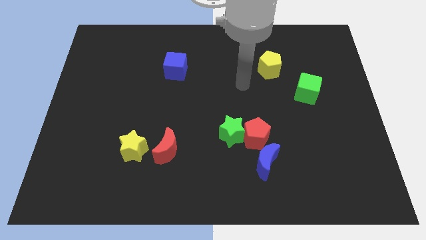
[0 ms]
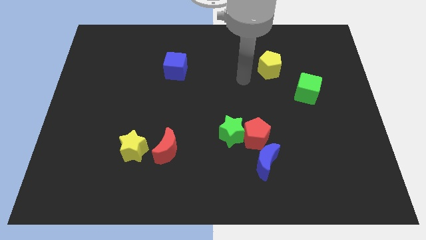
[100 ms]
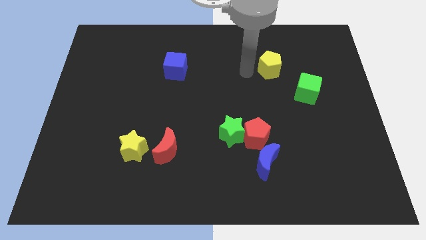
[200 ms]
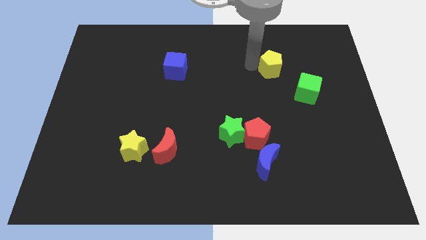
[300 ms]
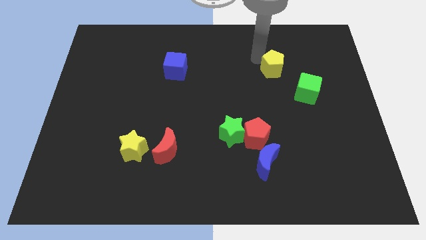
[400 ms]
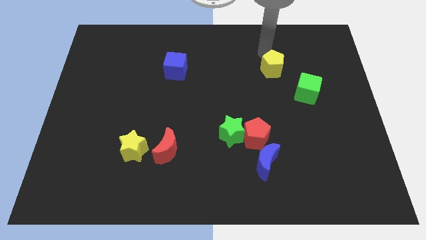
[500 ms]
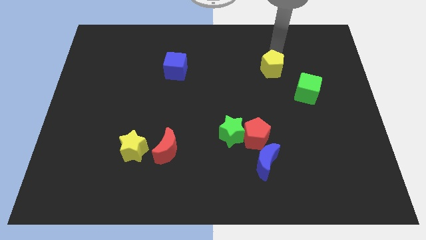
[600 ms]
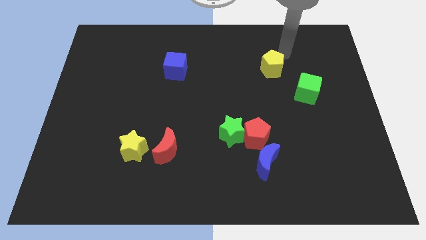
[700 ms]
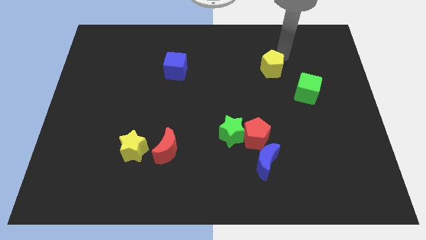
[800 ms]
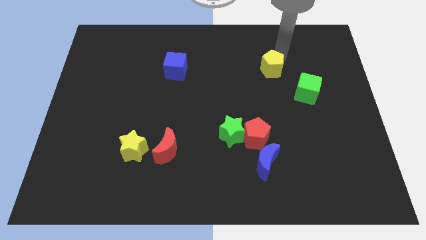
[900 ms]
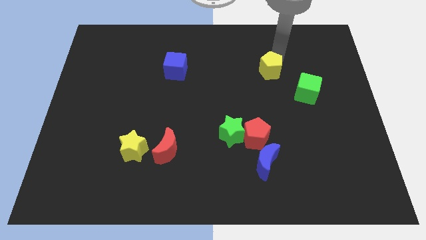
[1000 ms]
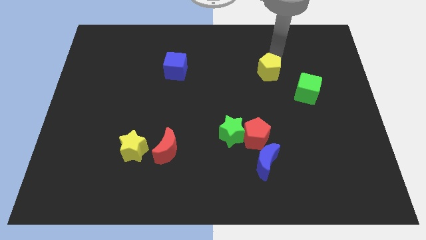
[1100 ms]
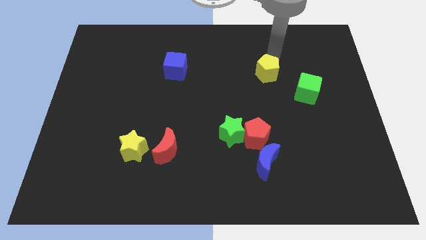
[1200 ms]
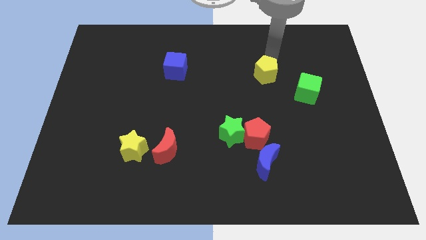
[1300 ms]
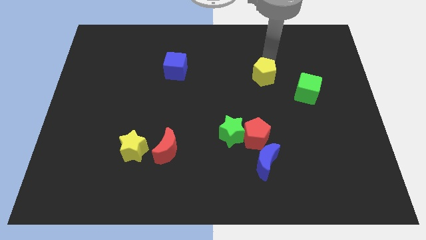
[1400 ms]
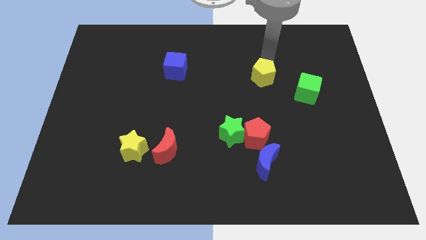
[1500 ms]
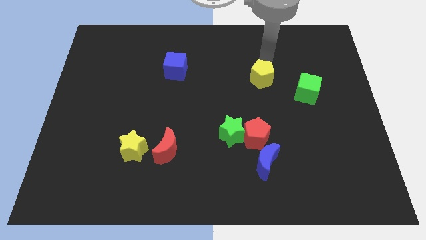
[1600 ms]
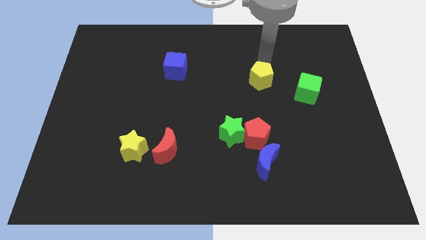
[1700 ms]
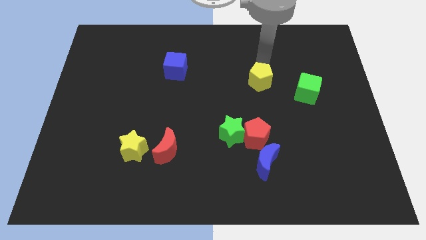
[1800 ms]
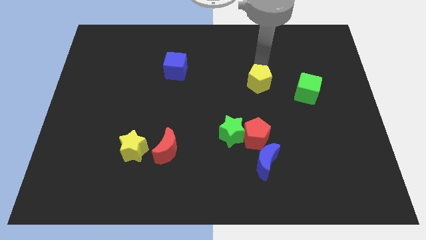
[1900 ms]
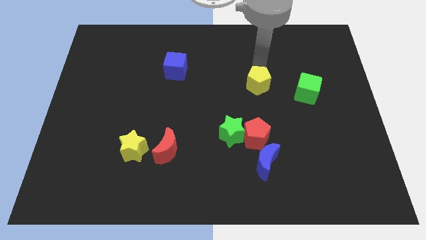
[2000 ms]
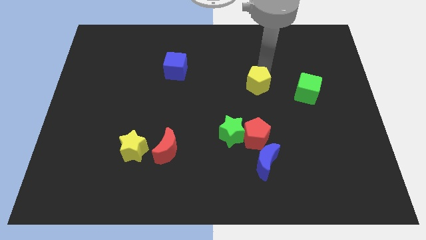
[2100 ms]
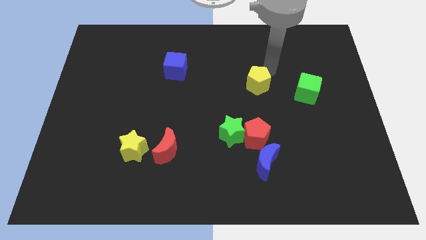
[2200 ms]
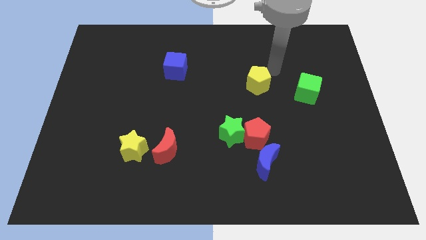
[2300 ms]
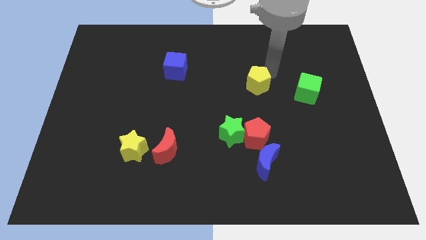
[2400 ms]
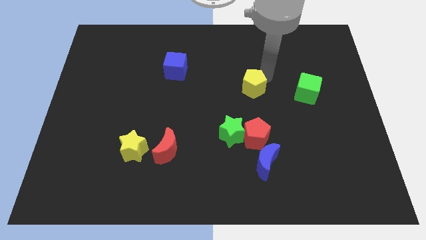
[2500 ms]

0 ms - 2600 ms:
push the yellow pentagon downwards and then left a little

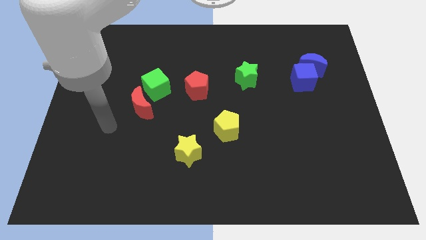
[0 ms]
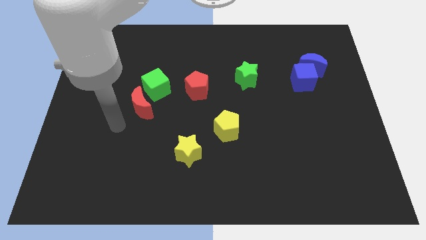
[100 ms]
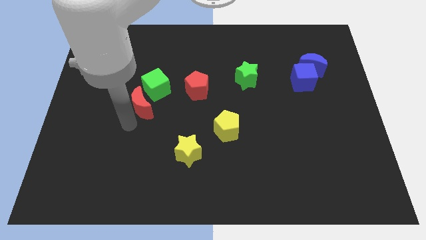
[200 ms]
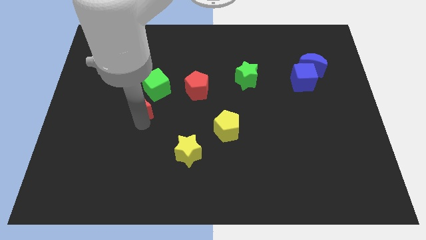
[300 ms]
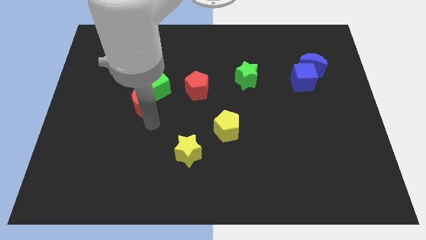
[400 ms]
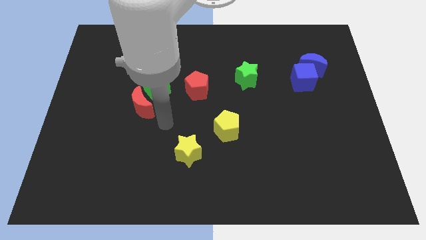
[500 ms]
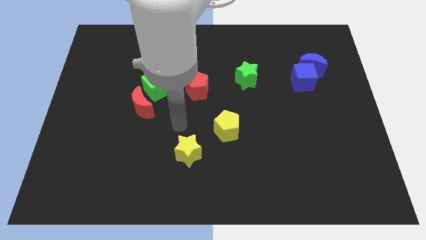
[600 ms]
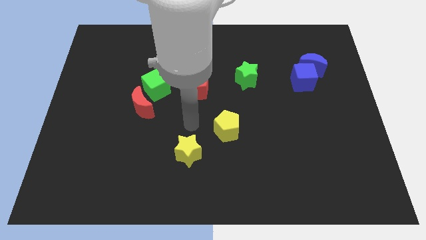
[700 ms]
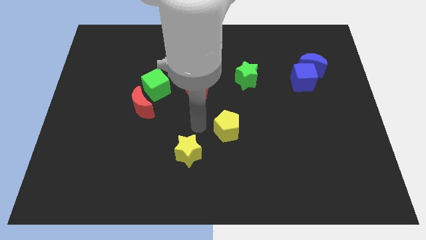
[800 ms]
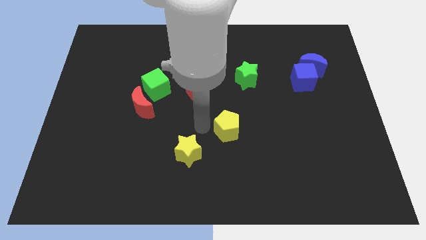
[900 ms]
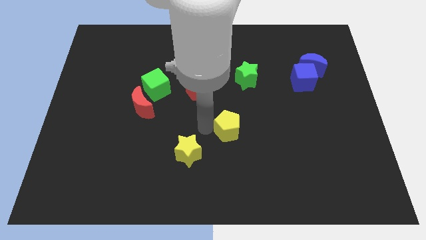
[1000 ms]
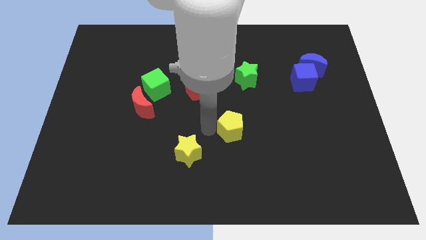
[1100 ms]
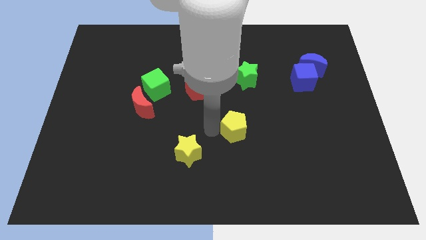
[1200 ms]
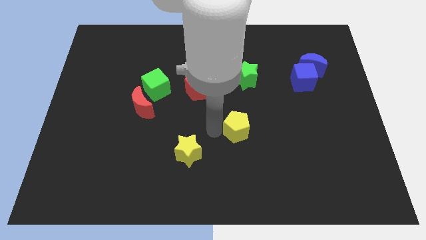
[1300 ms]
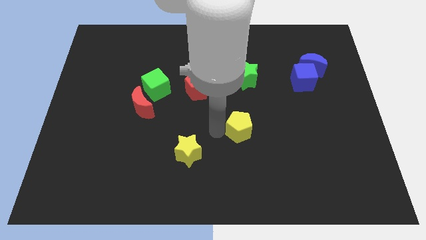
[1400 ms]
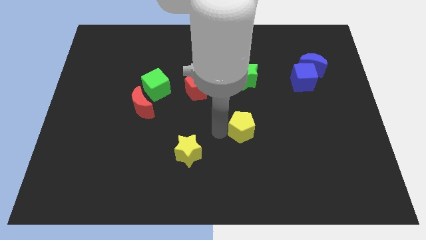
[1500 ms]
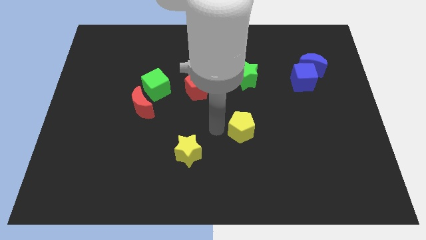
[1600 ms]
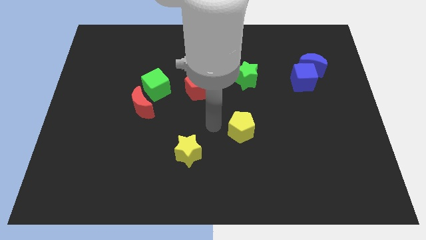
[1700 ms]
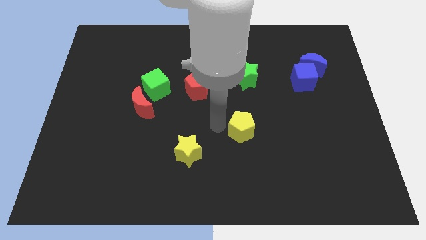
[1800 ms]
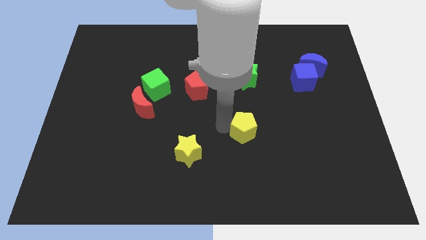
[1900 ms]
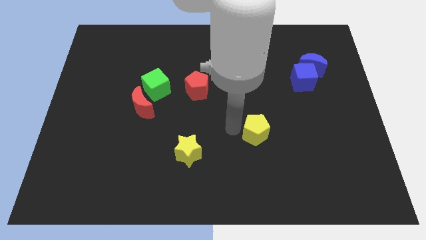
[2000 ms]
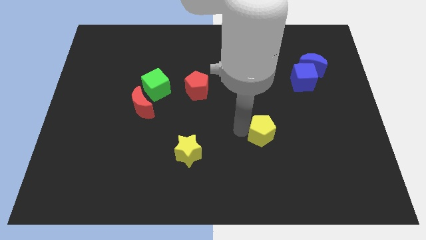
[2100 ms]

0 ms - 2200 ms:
slide the yellow pentagon slightly right

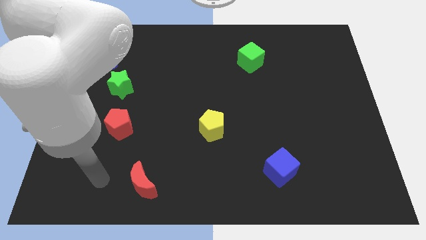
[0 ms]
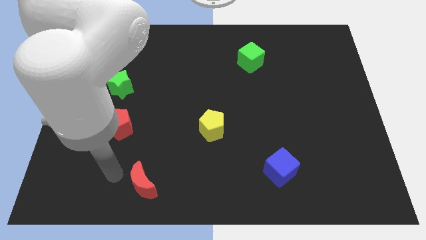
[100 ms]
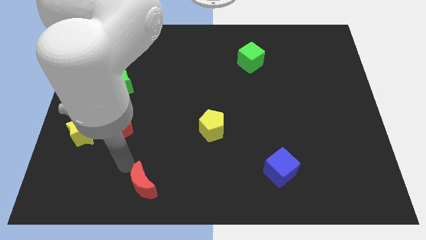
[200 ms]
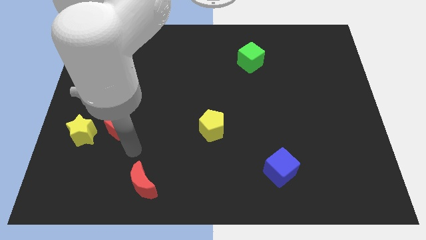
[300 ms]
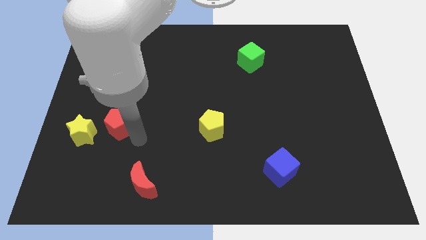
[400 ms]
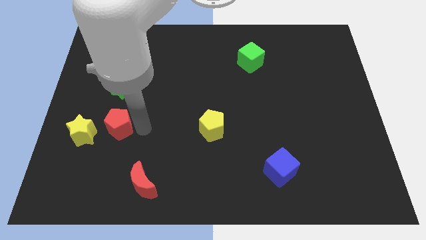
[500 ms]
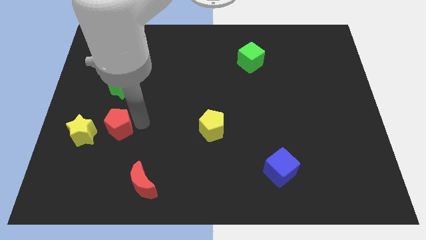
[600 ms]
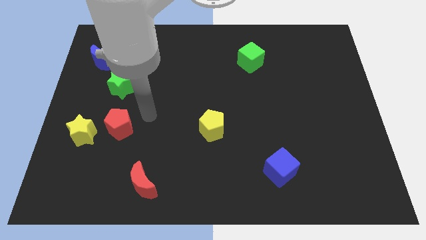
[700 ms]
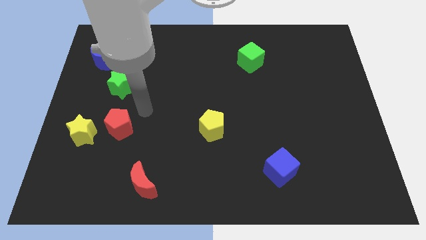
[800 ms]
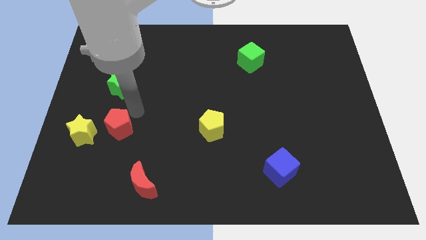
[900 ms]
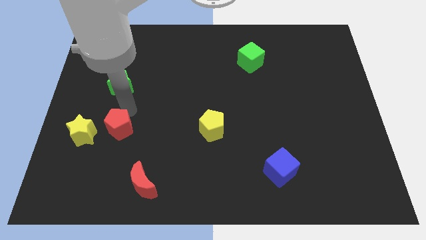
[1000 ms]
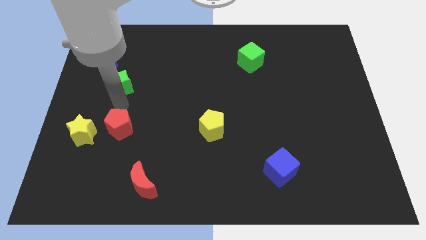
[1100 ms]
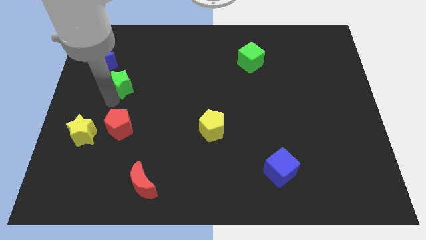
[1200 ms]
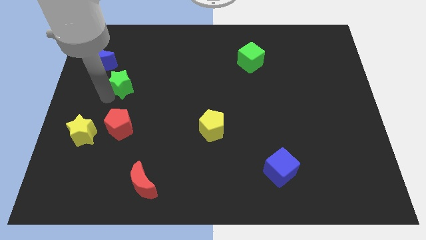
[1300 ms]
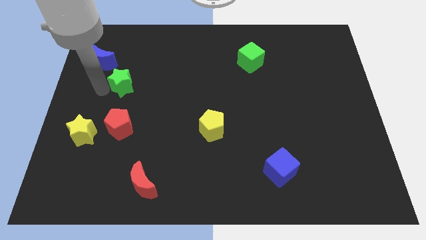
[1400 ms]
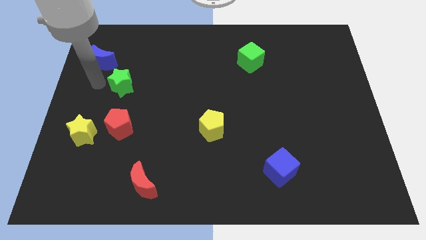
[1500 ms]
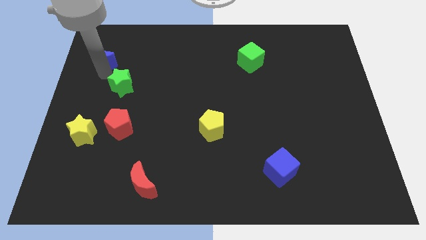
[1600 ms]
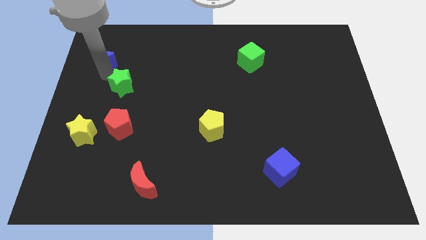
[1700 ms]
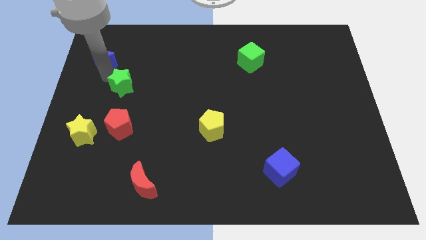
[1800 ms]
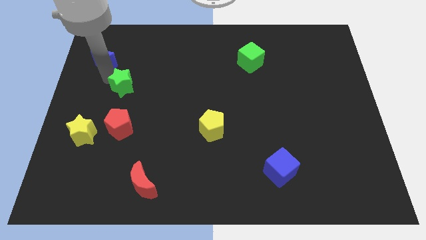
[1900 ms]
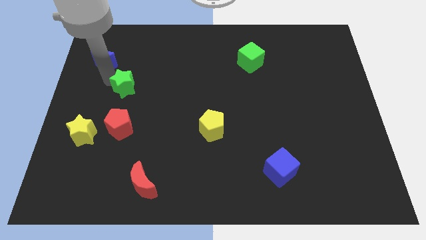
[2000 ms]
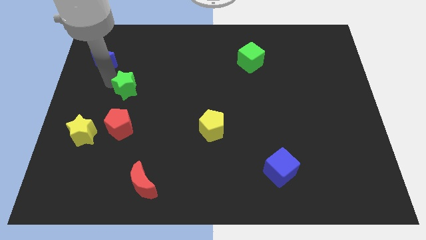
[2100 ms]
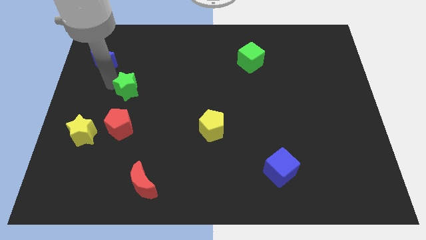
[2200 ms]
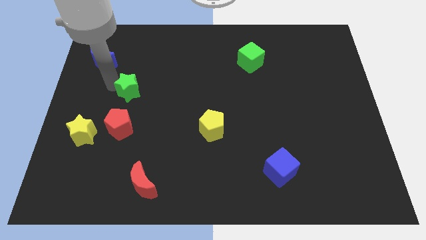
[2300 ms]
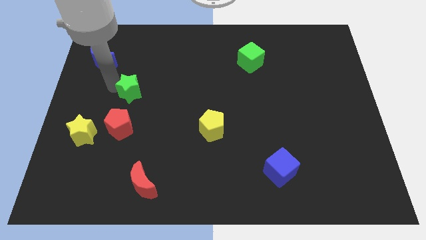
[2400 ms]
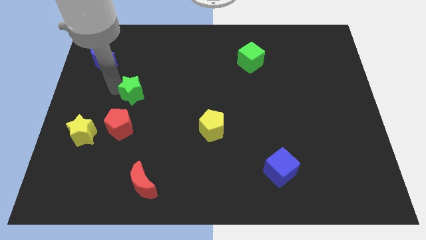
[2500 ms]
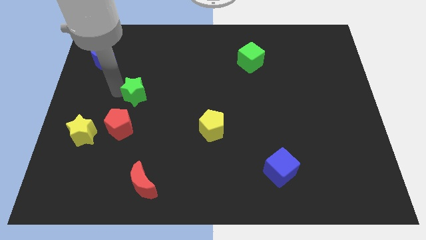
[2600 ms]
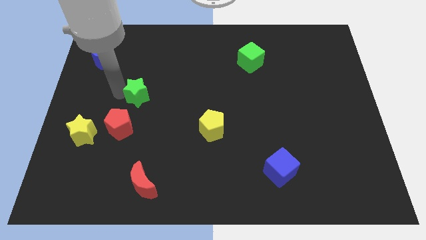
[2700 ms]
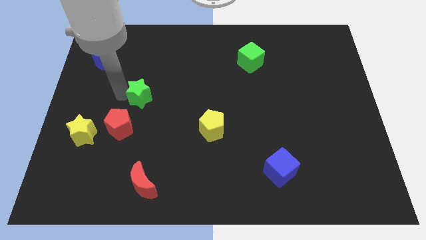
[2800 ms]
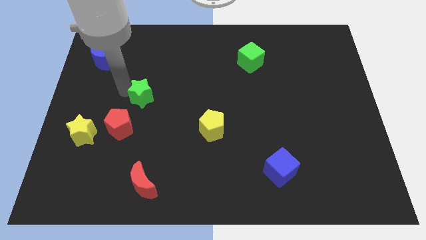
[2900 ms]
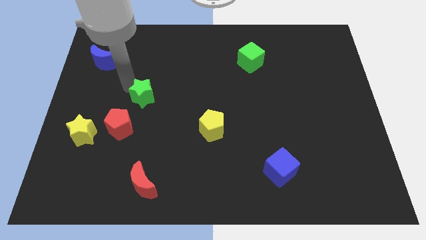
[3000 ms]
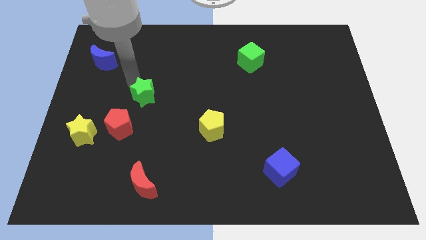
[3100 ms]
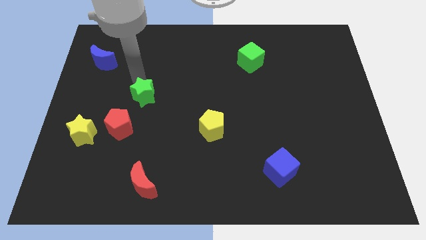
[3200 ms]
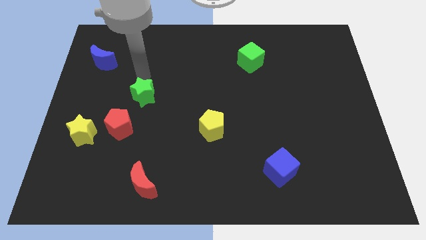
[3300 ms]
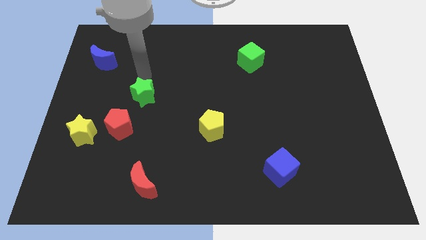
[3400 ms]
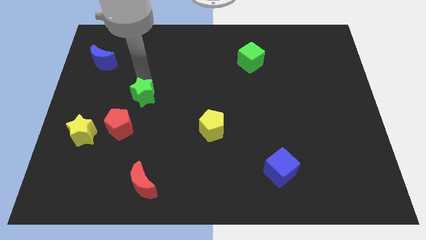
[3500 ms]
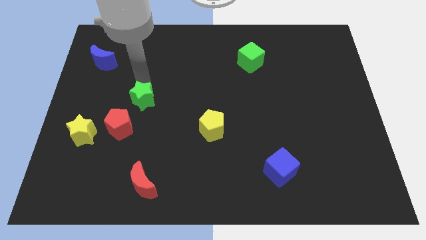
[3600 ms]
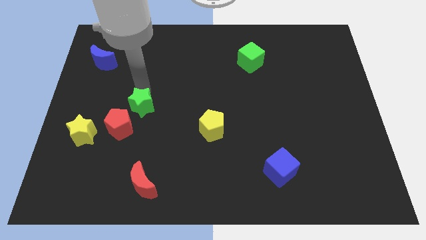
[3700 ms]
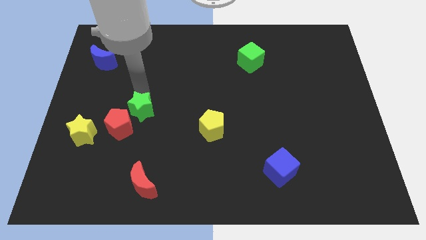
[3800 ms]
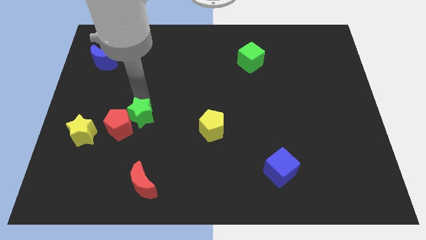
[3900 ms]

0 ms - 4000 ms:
slightly push the green star down
